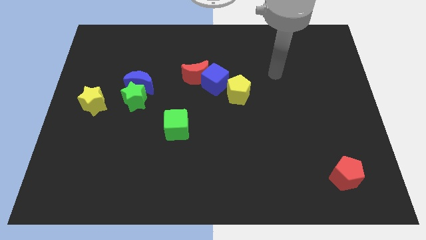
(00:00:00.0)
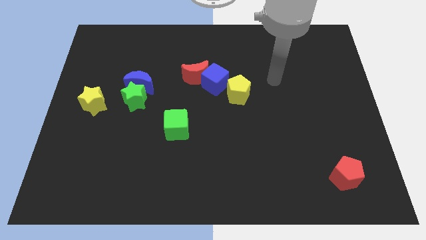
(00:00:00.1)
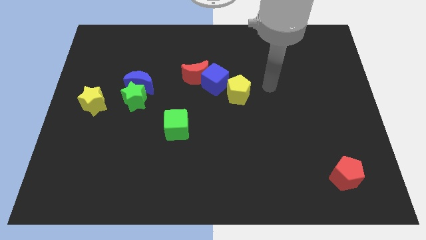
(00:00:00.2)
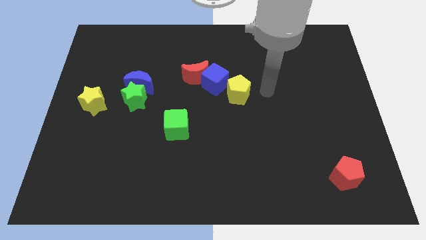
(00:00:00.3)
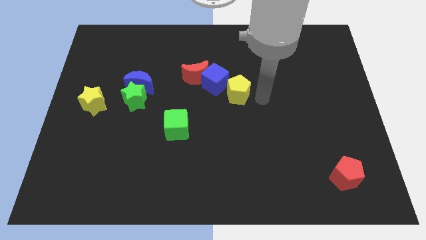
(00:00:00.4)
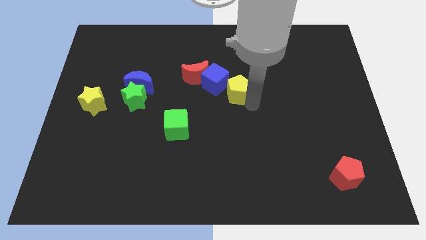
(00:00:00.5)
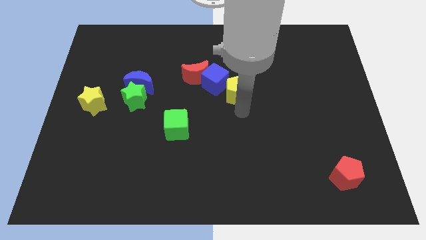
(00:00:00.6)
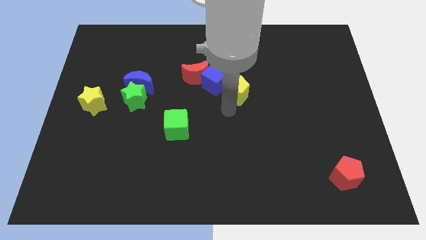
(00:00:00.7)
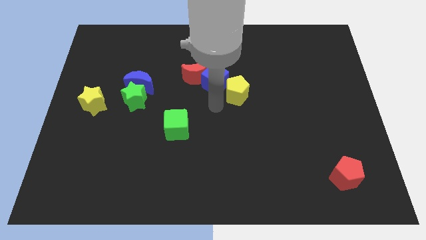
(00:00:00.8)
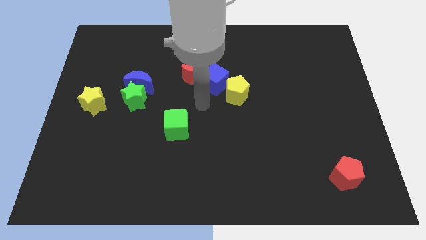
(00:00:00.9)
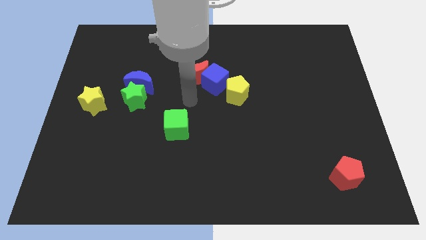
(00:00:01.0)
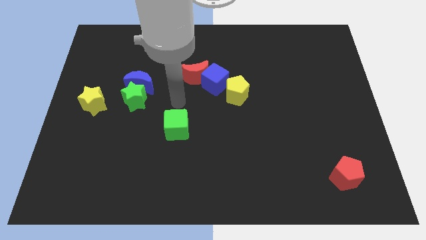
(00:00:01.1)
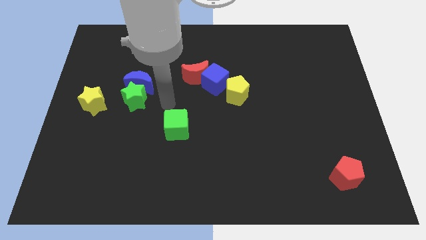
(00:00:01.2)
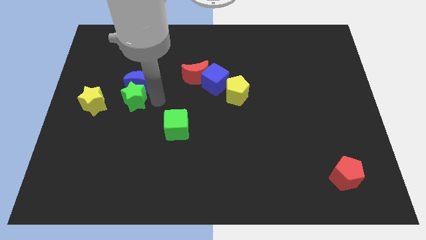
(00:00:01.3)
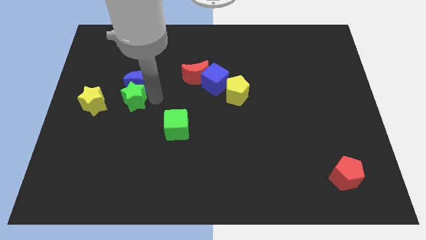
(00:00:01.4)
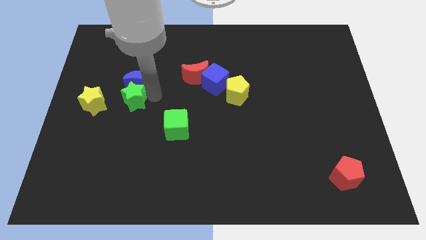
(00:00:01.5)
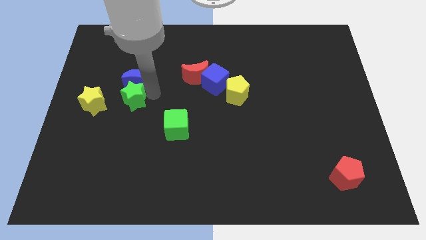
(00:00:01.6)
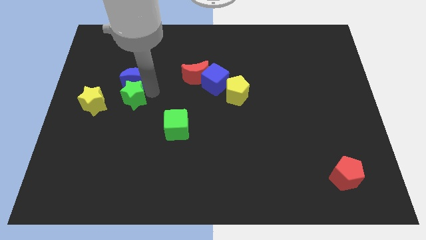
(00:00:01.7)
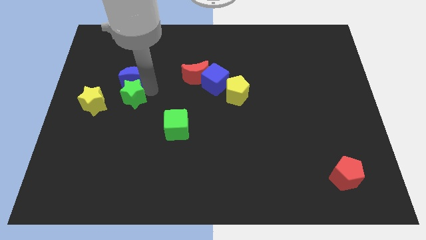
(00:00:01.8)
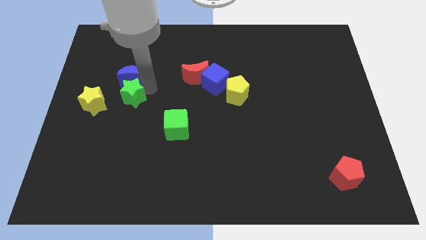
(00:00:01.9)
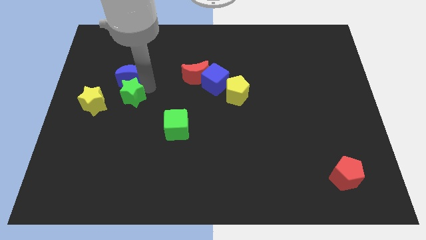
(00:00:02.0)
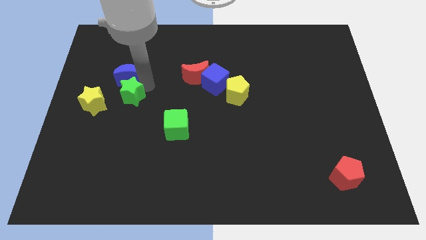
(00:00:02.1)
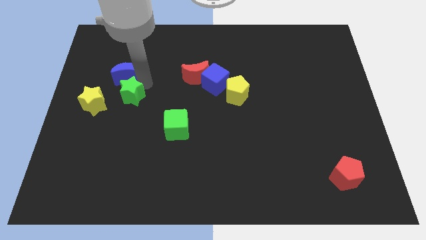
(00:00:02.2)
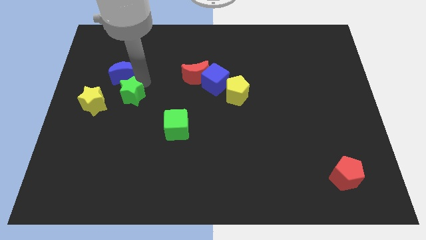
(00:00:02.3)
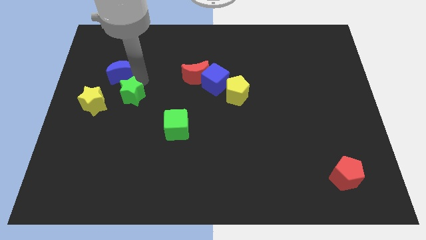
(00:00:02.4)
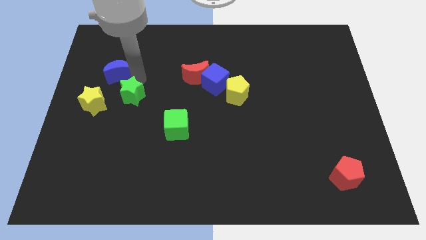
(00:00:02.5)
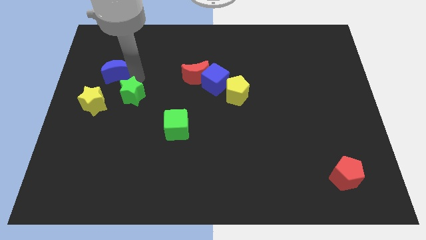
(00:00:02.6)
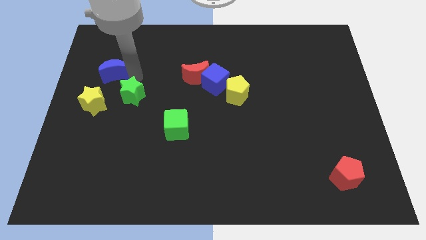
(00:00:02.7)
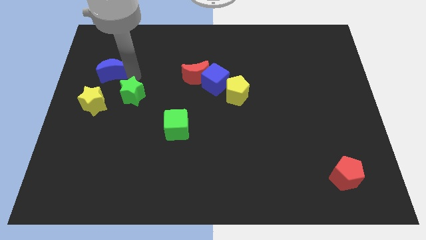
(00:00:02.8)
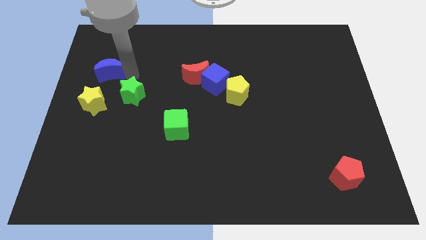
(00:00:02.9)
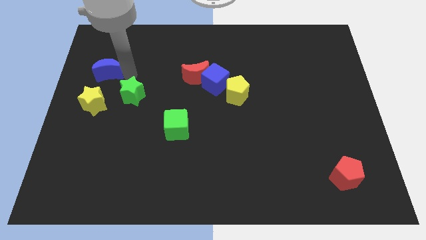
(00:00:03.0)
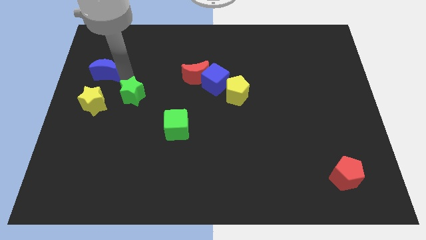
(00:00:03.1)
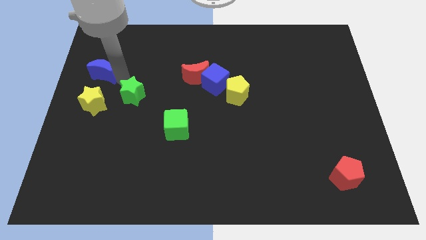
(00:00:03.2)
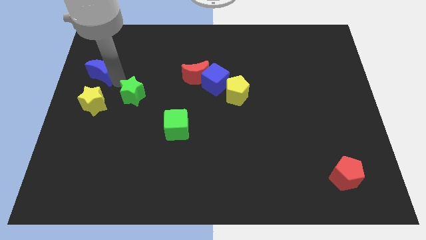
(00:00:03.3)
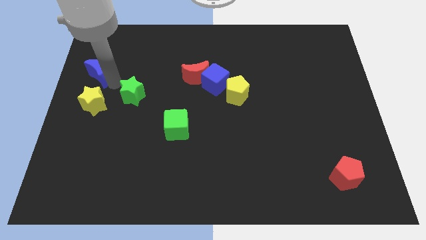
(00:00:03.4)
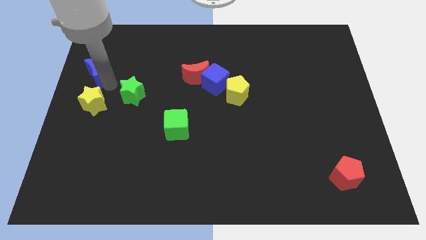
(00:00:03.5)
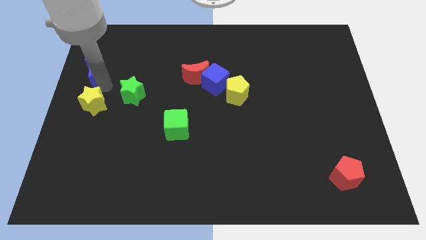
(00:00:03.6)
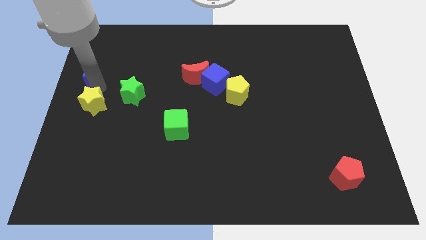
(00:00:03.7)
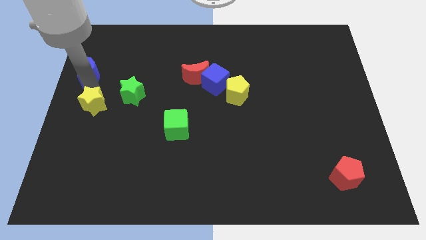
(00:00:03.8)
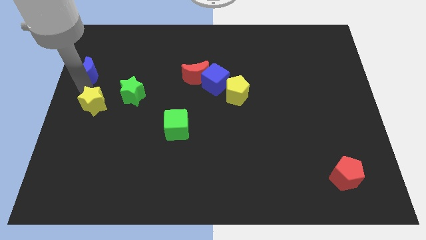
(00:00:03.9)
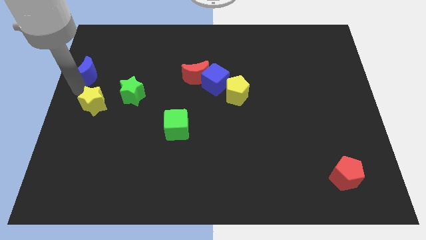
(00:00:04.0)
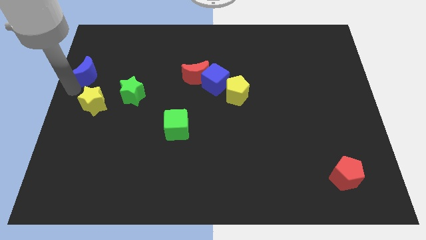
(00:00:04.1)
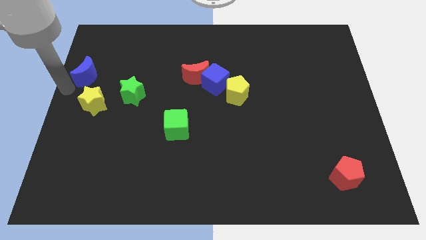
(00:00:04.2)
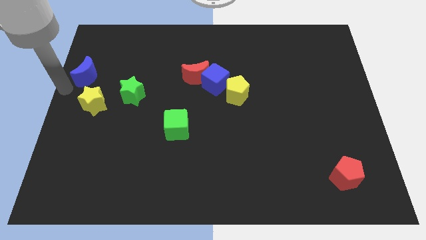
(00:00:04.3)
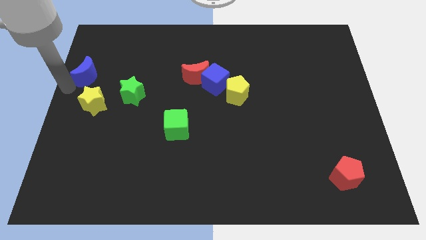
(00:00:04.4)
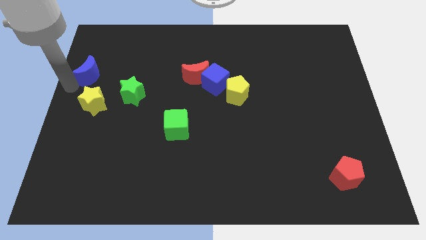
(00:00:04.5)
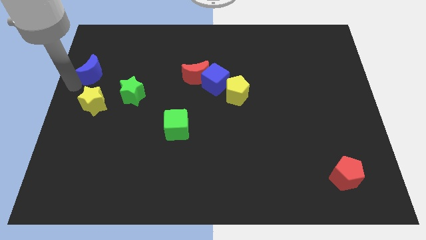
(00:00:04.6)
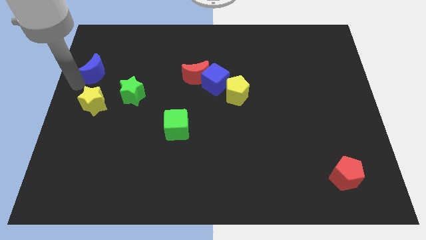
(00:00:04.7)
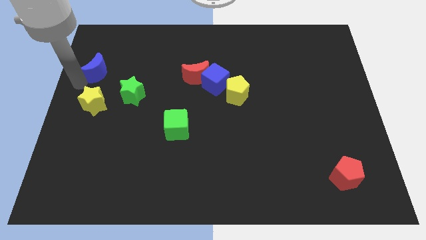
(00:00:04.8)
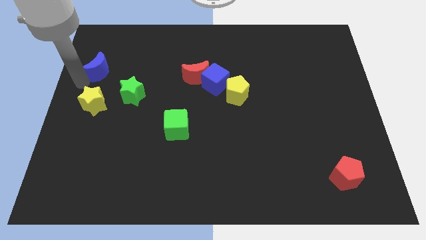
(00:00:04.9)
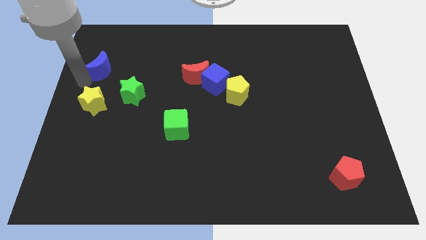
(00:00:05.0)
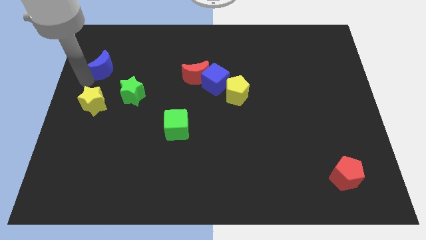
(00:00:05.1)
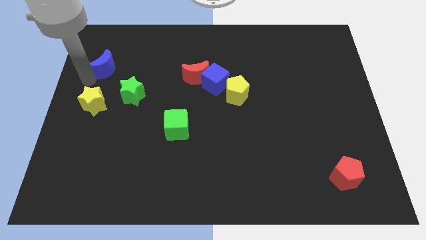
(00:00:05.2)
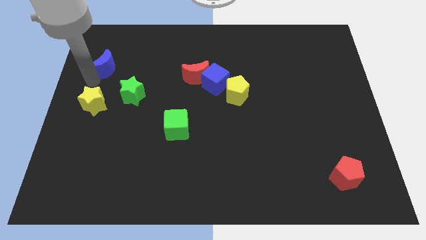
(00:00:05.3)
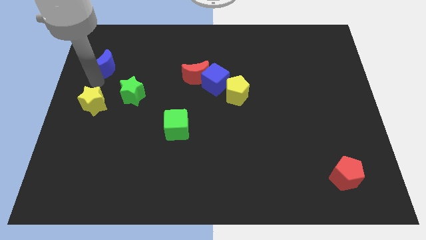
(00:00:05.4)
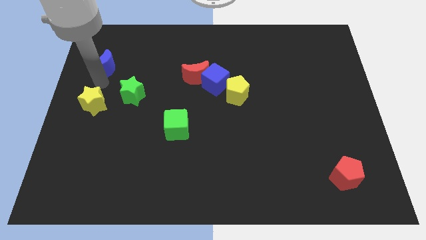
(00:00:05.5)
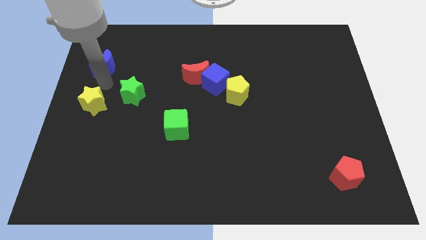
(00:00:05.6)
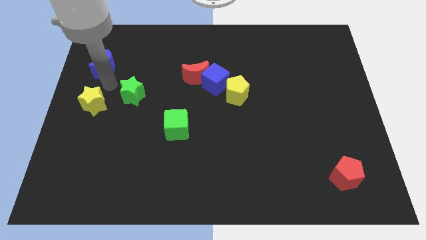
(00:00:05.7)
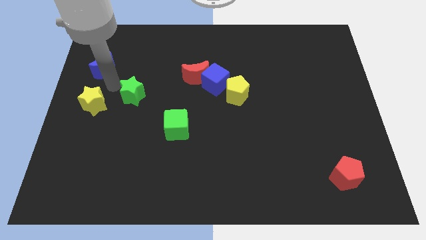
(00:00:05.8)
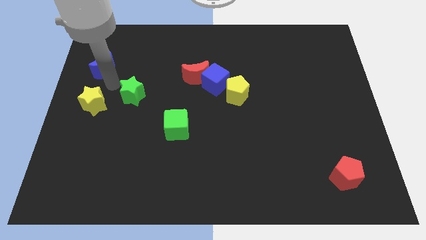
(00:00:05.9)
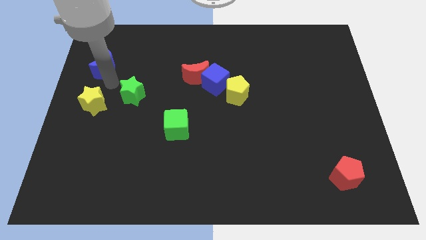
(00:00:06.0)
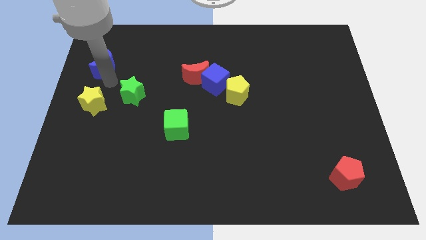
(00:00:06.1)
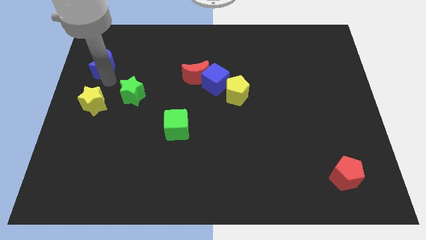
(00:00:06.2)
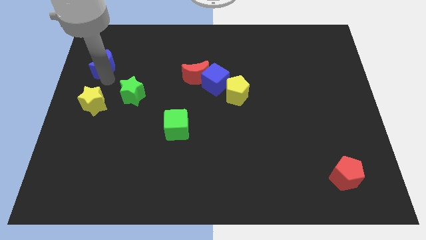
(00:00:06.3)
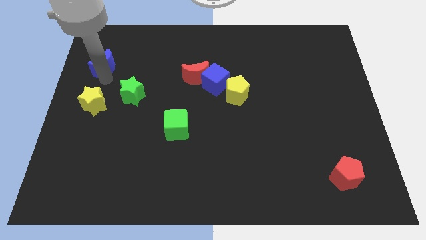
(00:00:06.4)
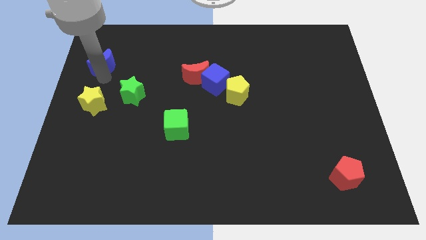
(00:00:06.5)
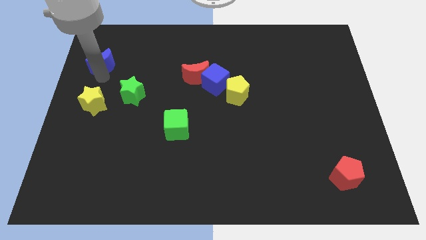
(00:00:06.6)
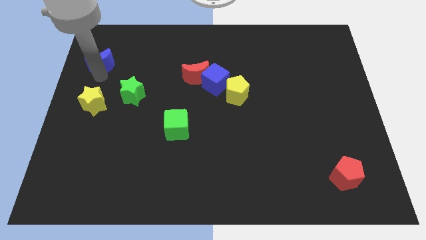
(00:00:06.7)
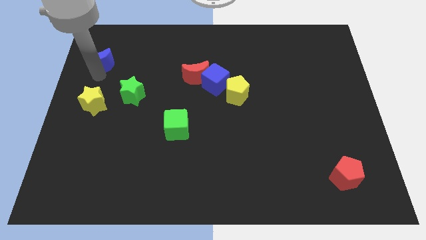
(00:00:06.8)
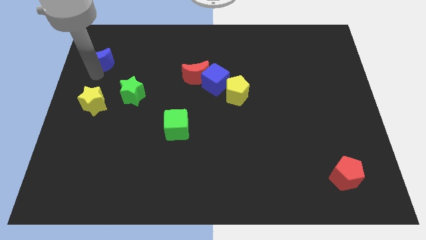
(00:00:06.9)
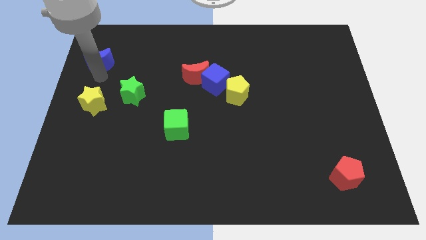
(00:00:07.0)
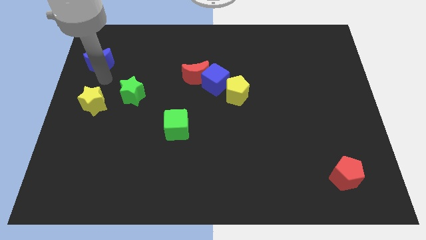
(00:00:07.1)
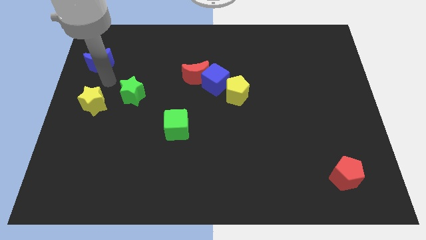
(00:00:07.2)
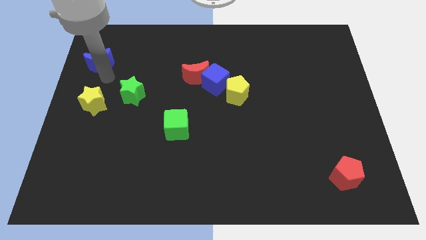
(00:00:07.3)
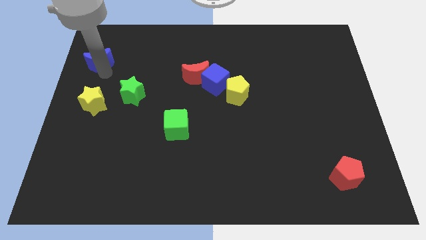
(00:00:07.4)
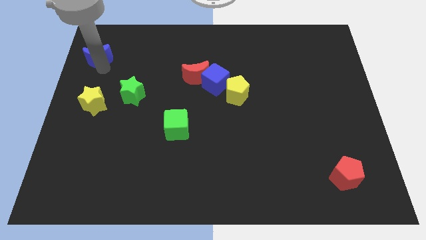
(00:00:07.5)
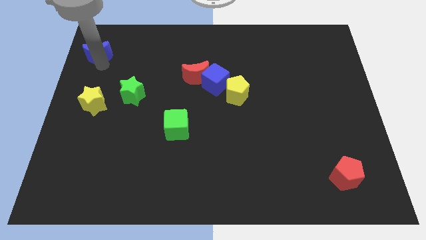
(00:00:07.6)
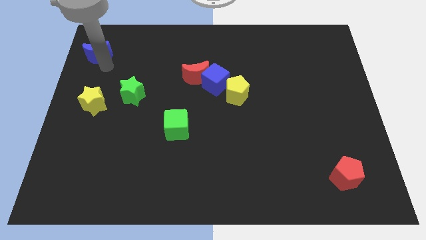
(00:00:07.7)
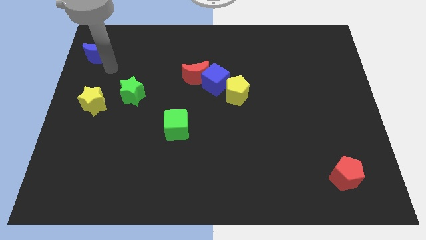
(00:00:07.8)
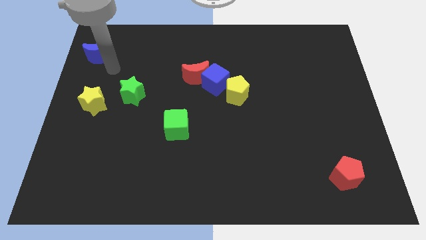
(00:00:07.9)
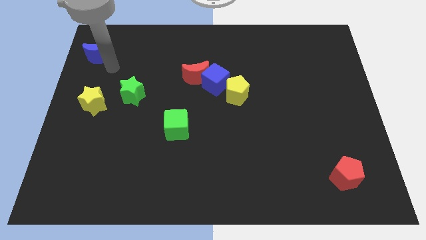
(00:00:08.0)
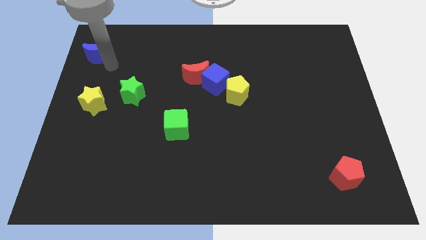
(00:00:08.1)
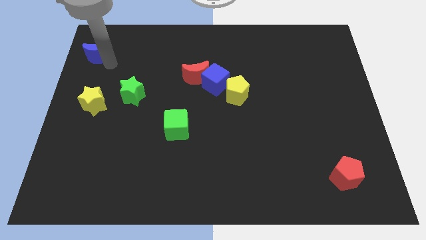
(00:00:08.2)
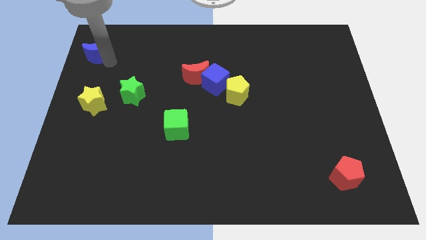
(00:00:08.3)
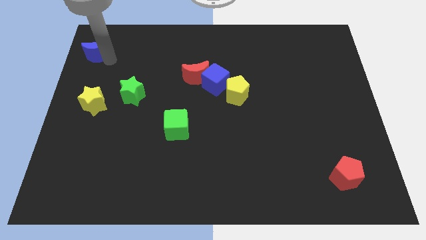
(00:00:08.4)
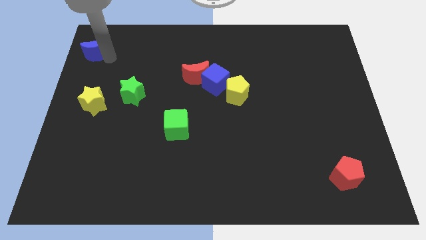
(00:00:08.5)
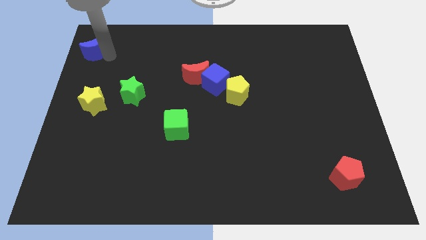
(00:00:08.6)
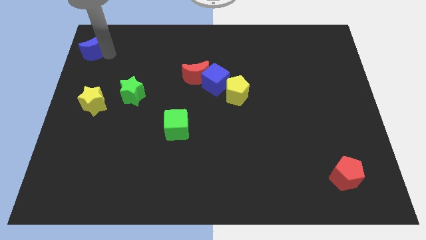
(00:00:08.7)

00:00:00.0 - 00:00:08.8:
move the blue moon to the upper left corner
